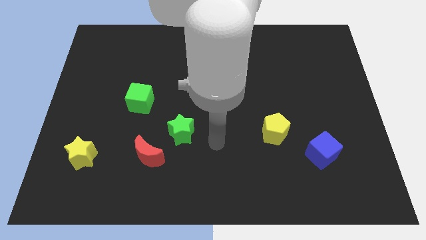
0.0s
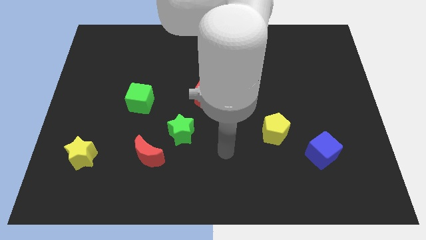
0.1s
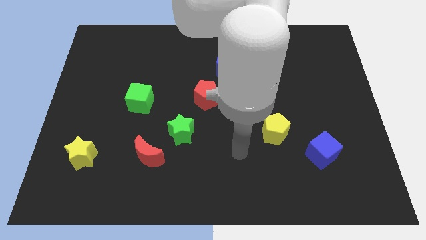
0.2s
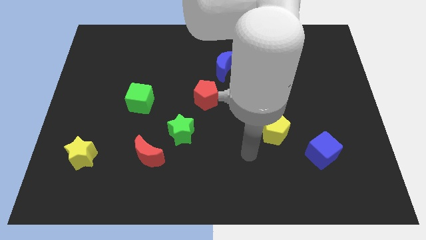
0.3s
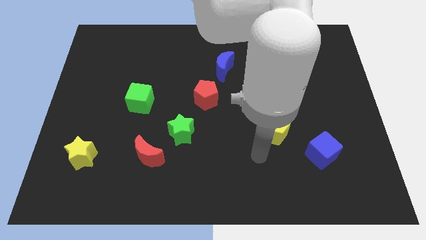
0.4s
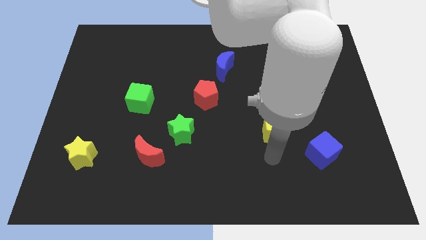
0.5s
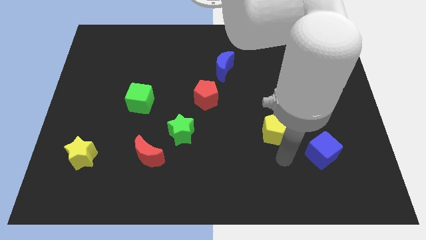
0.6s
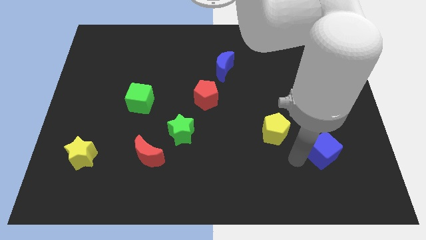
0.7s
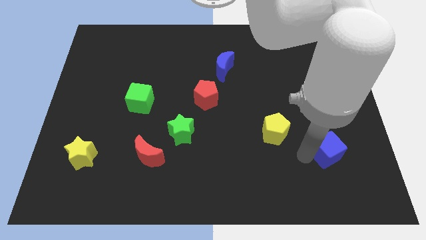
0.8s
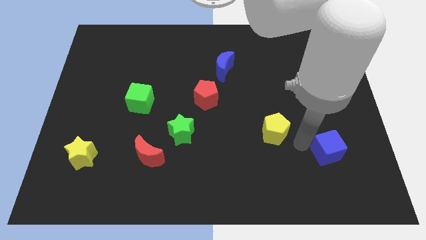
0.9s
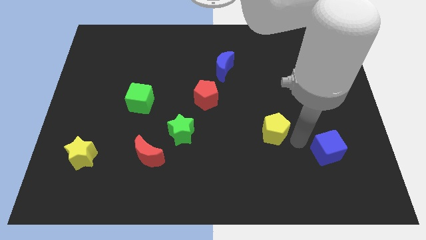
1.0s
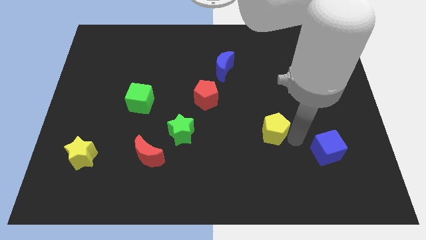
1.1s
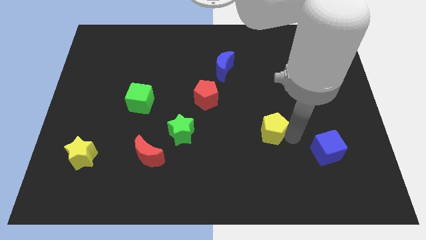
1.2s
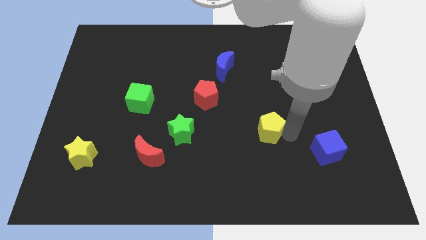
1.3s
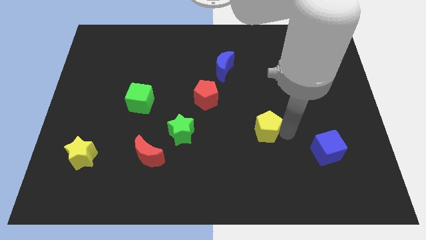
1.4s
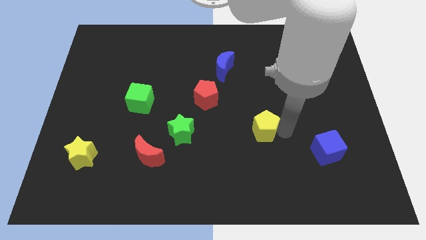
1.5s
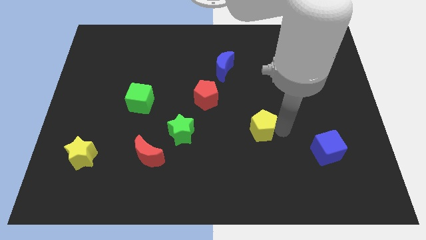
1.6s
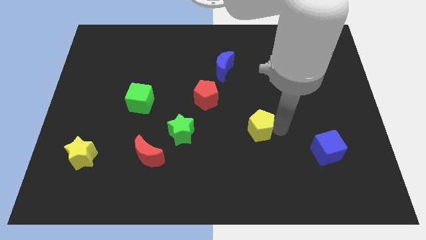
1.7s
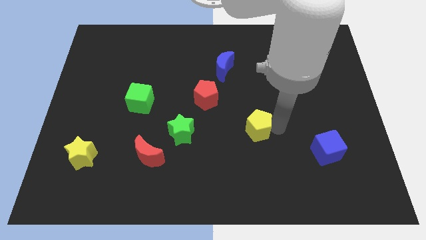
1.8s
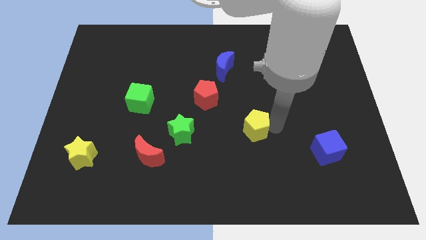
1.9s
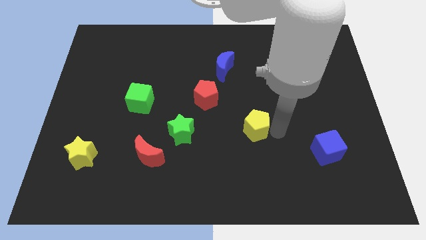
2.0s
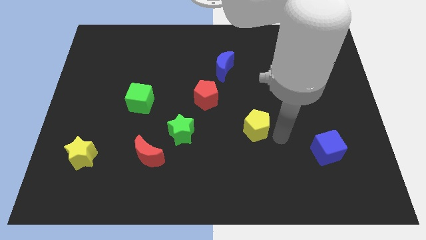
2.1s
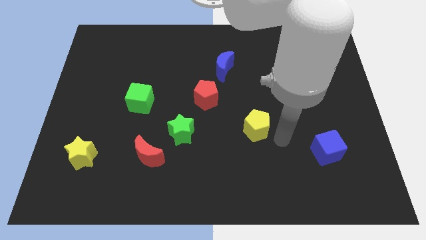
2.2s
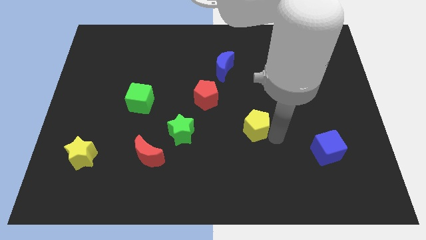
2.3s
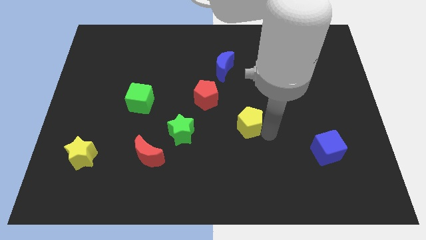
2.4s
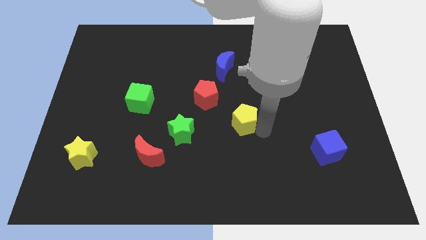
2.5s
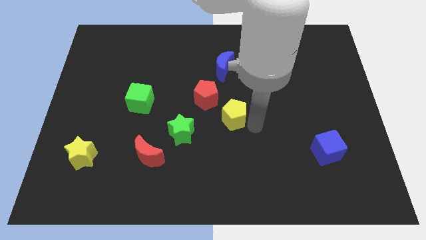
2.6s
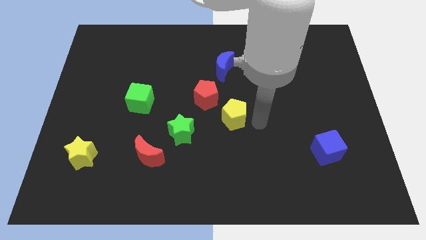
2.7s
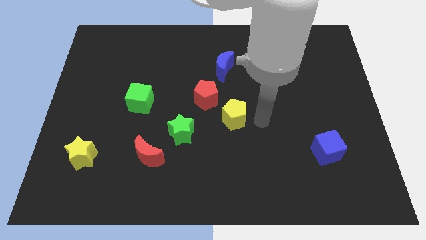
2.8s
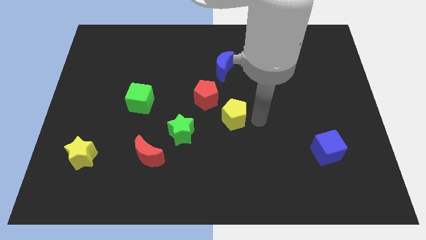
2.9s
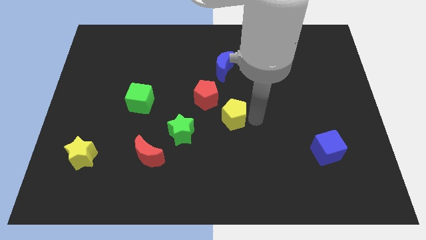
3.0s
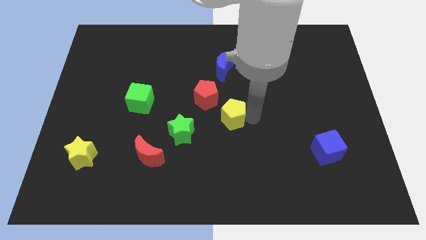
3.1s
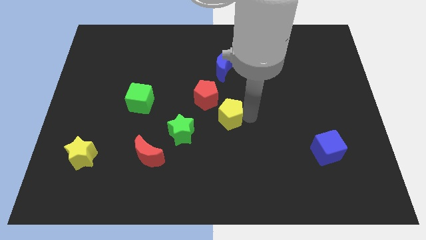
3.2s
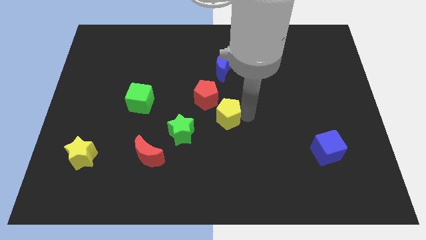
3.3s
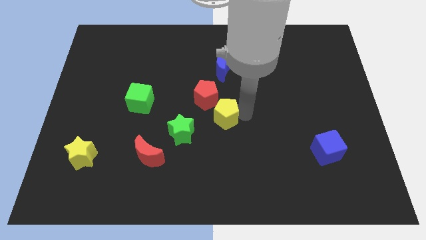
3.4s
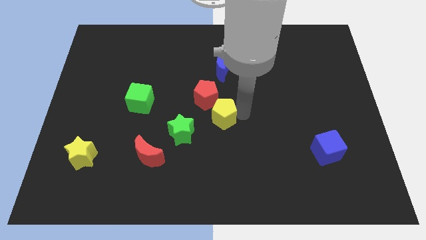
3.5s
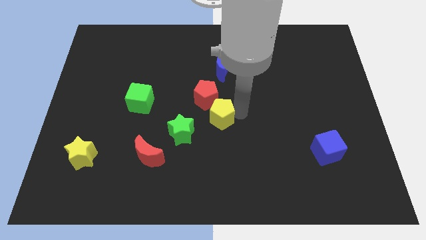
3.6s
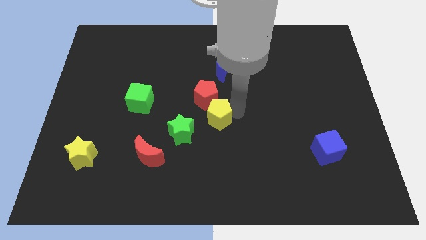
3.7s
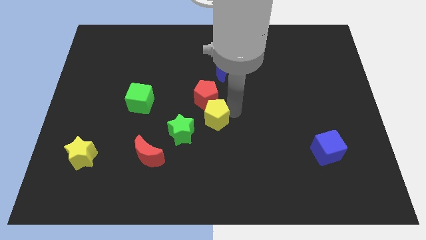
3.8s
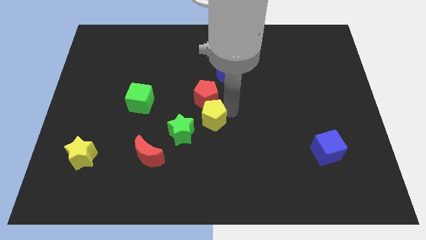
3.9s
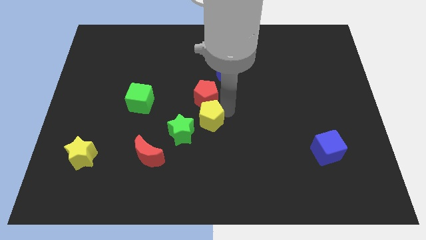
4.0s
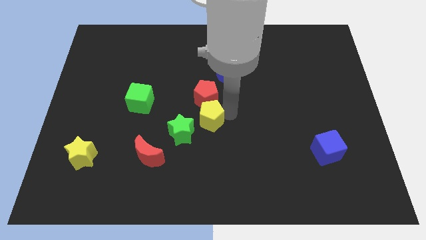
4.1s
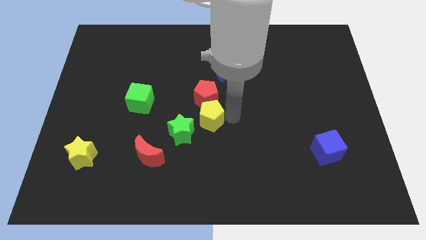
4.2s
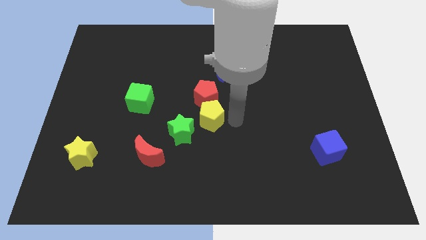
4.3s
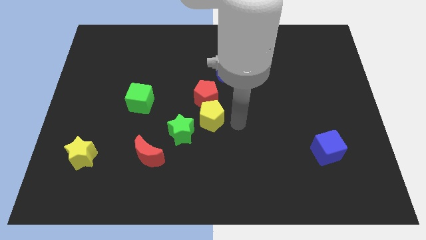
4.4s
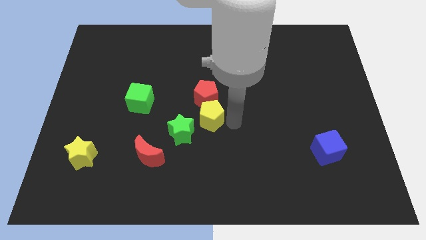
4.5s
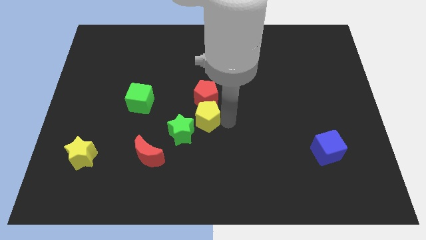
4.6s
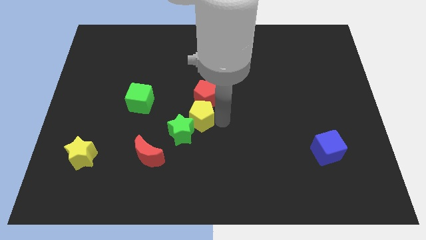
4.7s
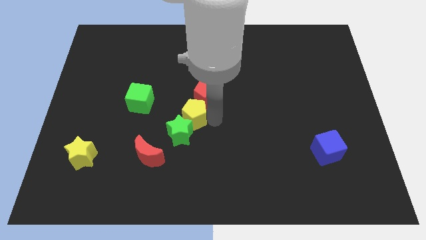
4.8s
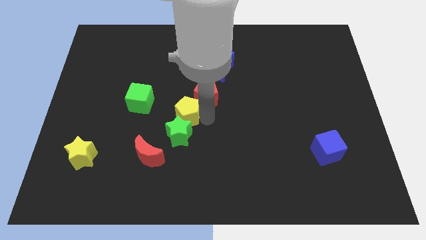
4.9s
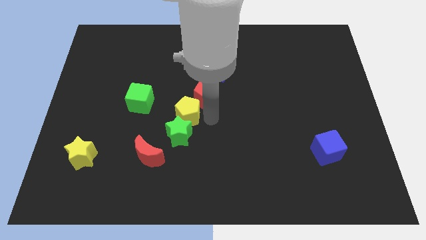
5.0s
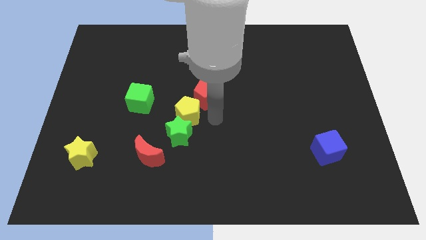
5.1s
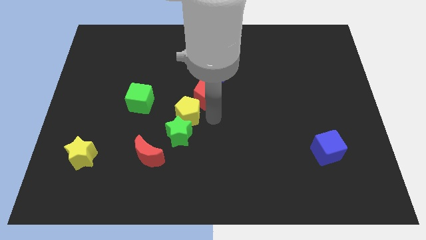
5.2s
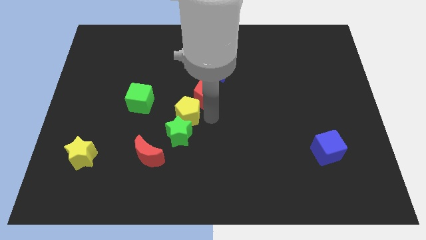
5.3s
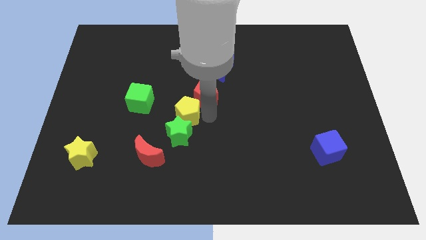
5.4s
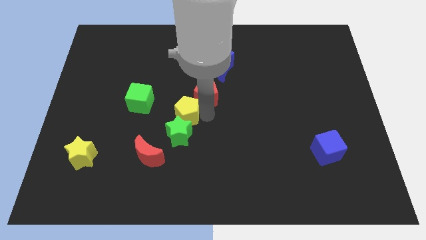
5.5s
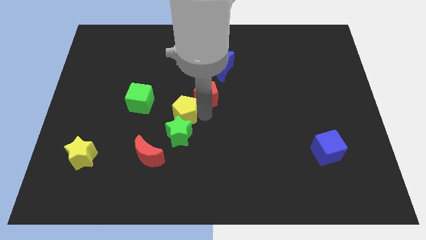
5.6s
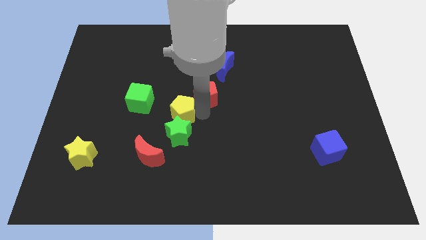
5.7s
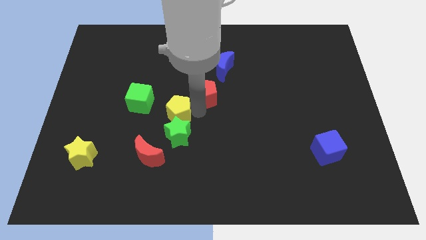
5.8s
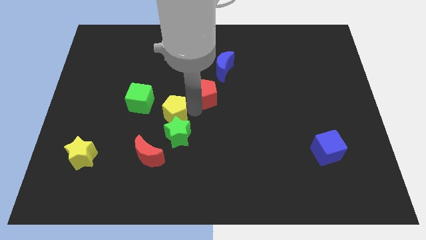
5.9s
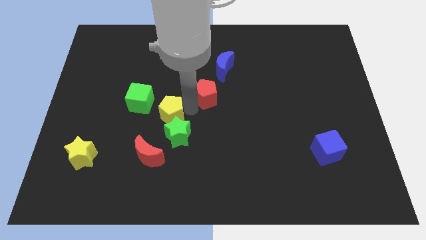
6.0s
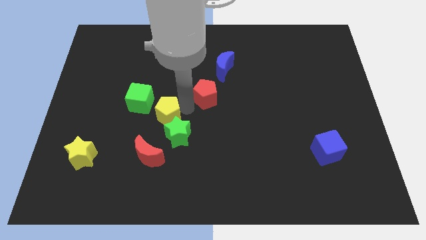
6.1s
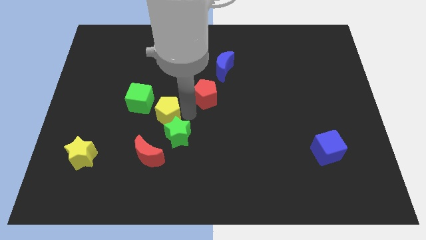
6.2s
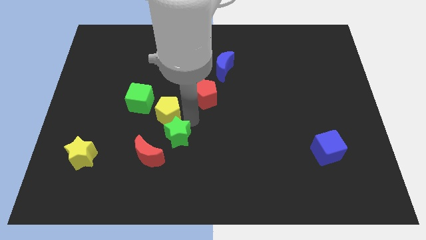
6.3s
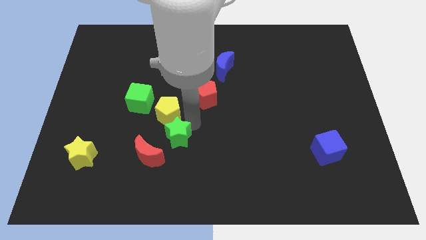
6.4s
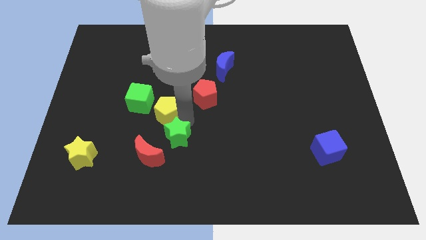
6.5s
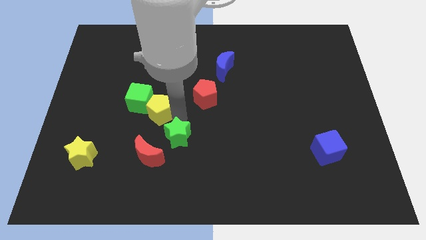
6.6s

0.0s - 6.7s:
move the yellow pentagon next to the green cube
